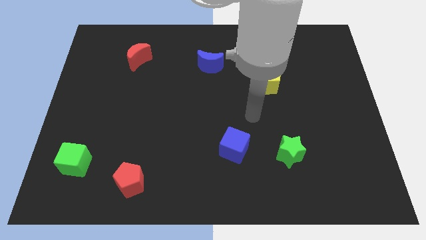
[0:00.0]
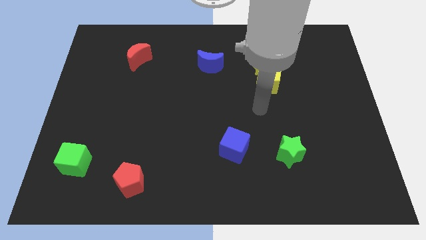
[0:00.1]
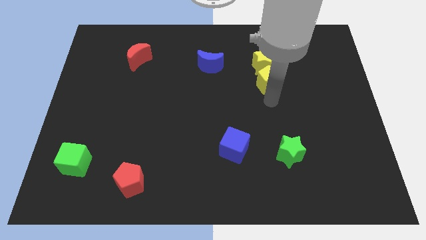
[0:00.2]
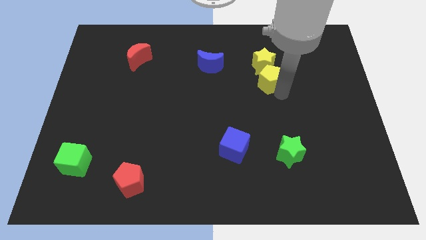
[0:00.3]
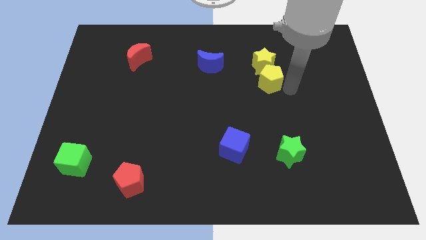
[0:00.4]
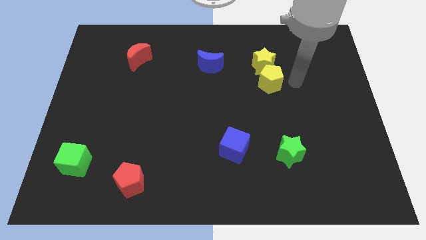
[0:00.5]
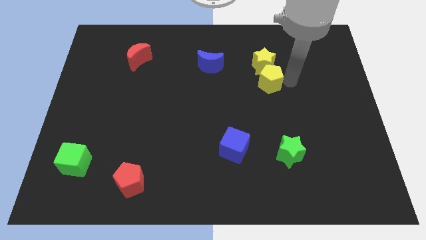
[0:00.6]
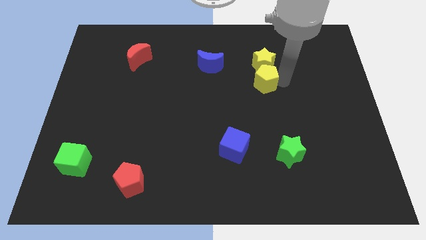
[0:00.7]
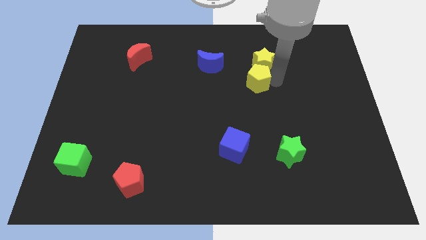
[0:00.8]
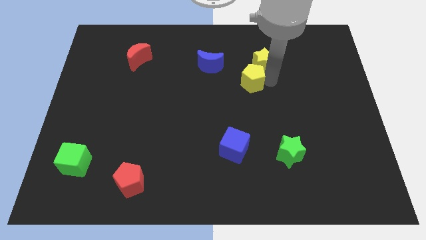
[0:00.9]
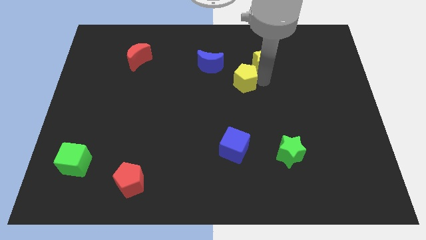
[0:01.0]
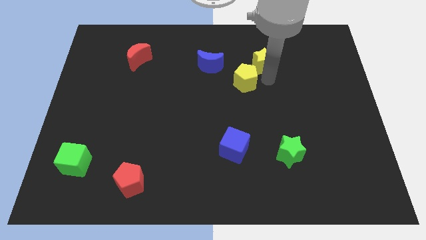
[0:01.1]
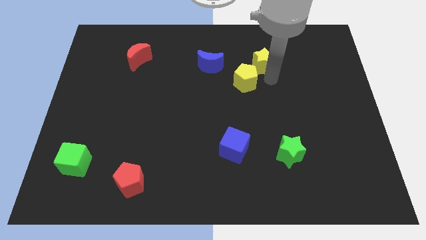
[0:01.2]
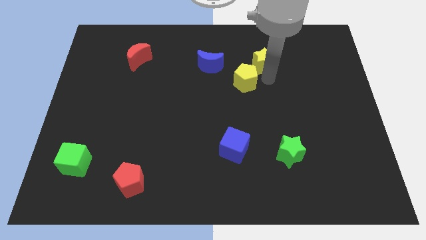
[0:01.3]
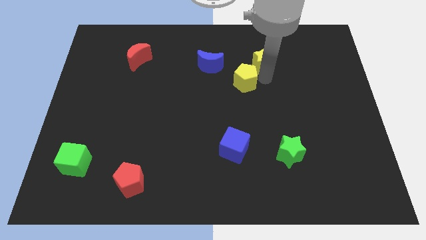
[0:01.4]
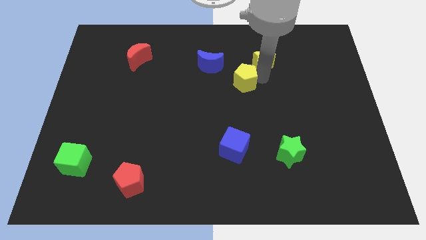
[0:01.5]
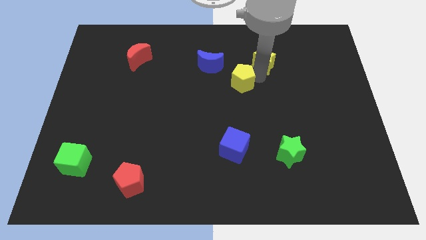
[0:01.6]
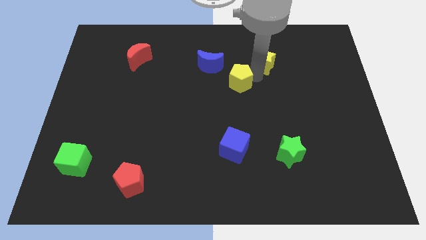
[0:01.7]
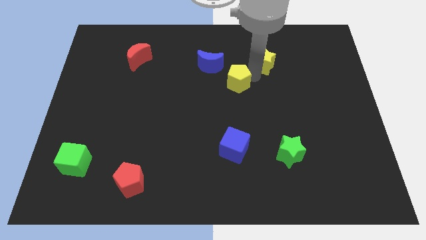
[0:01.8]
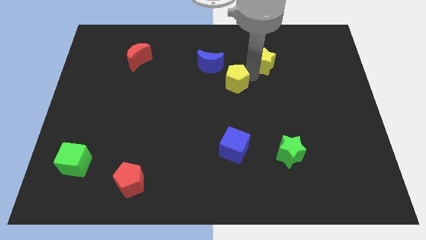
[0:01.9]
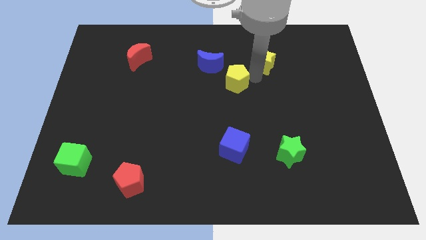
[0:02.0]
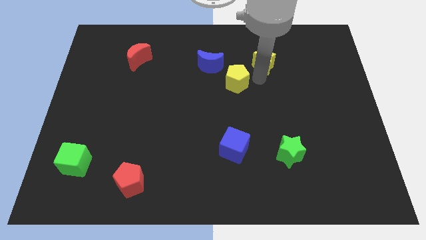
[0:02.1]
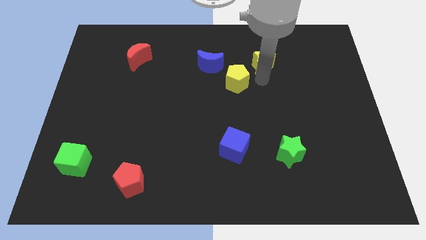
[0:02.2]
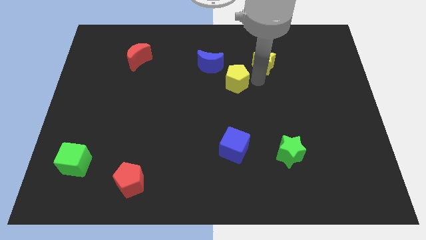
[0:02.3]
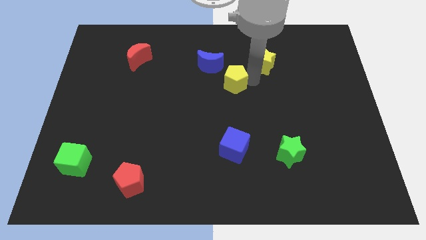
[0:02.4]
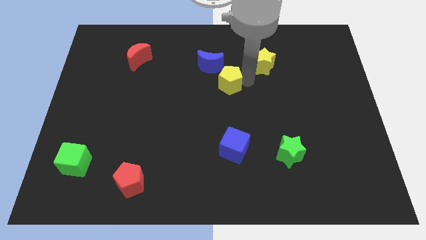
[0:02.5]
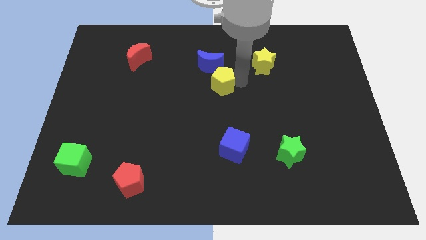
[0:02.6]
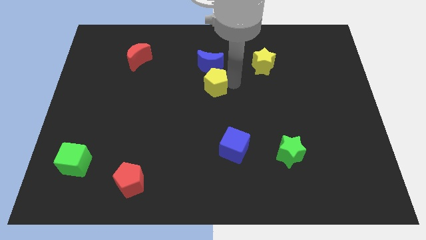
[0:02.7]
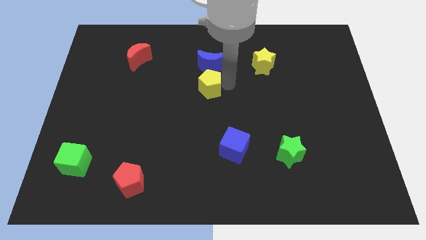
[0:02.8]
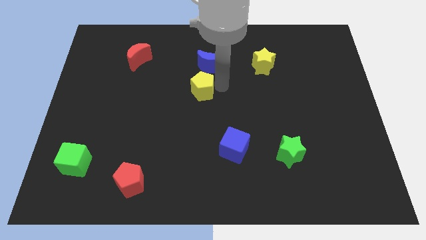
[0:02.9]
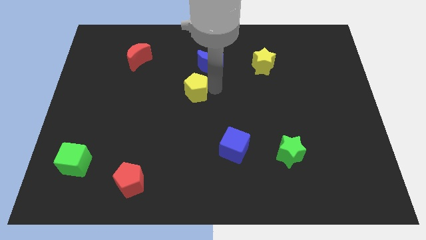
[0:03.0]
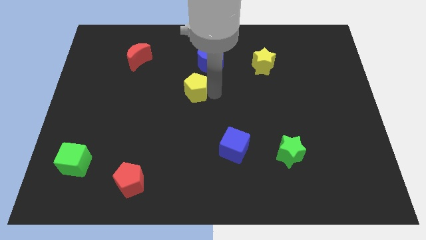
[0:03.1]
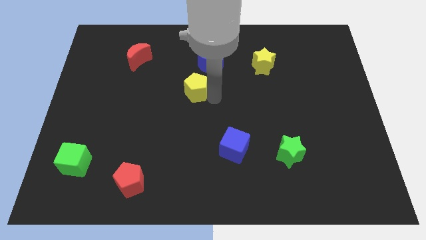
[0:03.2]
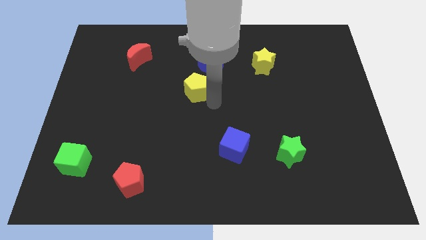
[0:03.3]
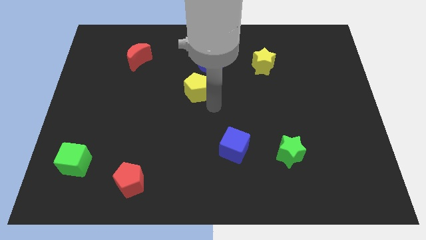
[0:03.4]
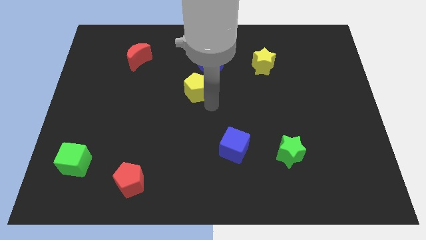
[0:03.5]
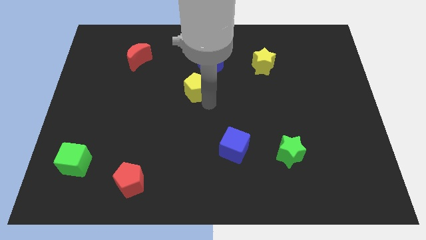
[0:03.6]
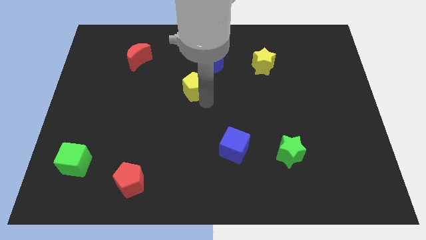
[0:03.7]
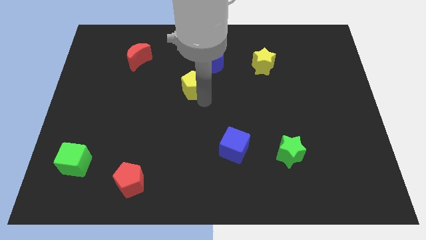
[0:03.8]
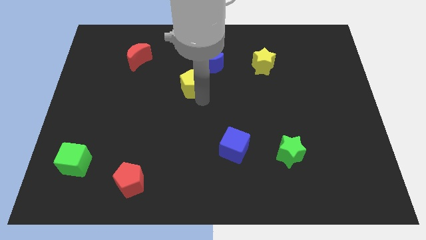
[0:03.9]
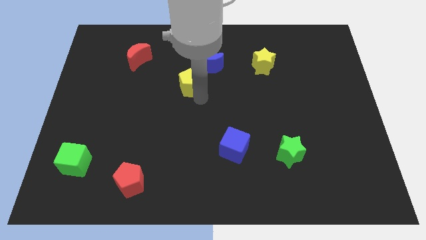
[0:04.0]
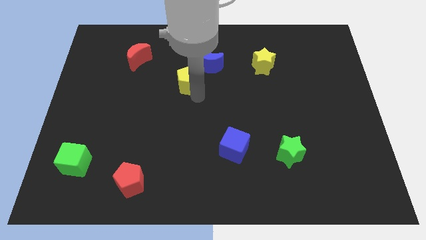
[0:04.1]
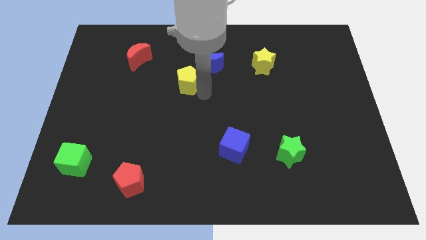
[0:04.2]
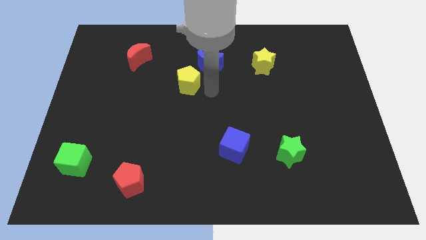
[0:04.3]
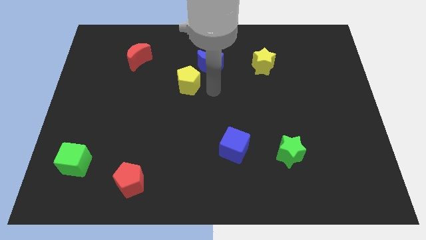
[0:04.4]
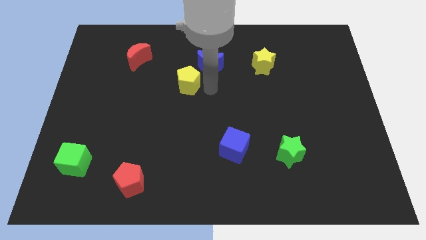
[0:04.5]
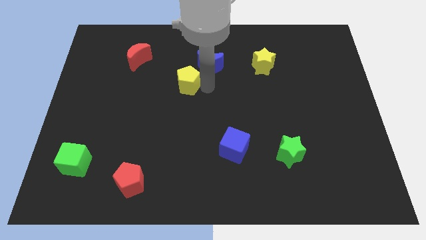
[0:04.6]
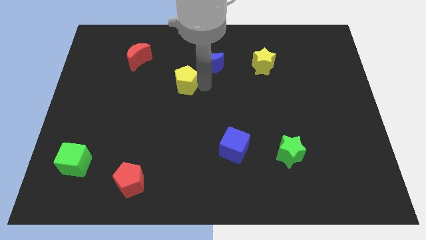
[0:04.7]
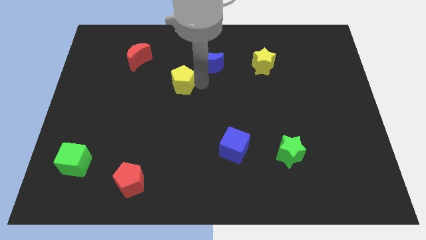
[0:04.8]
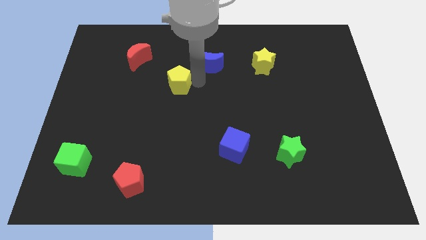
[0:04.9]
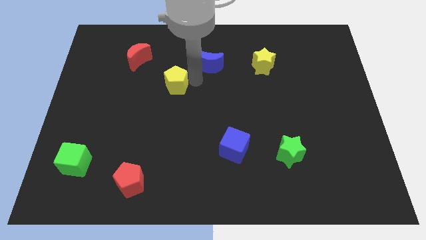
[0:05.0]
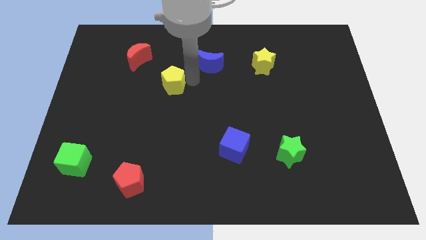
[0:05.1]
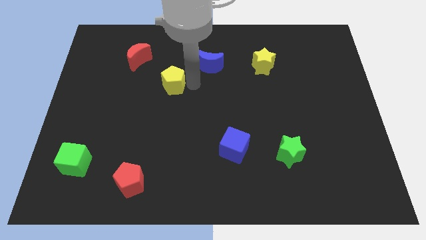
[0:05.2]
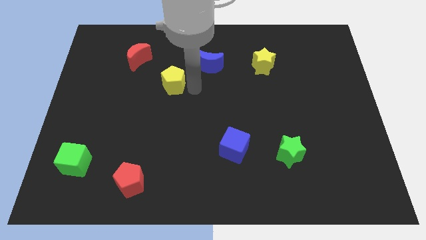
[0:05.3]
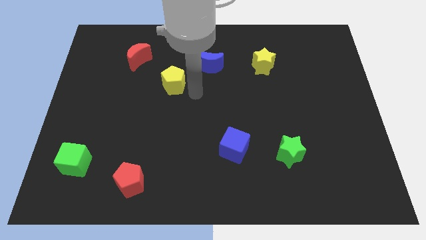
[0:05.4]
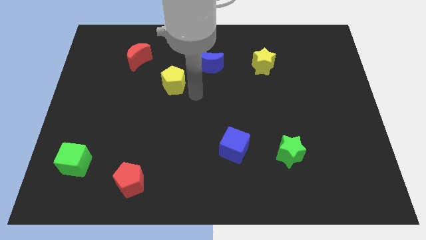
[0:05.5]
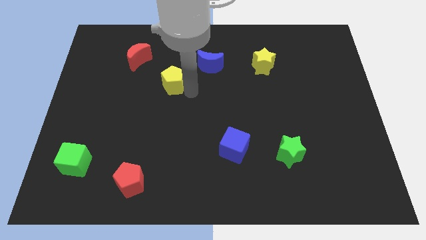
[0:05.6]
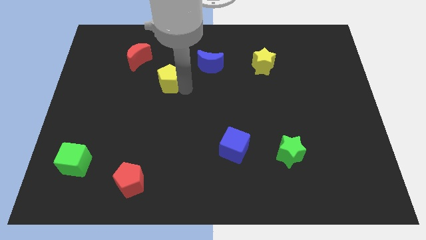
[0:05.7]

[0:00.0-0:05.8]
move the yellow pentagon diagonally down and to the right of the red moon

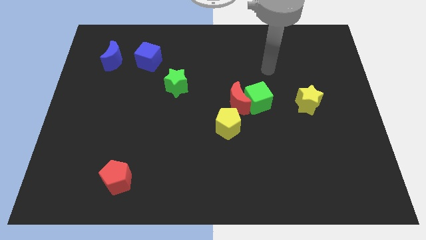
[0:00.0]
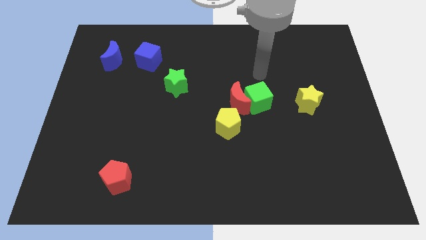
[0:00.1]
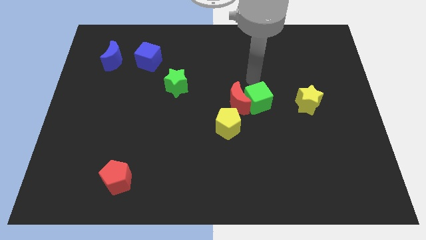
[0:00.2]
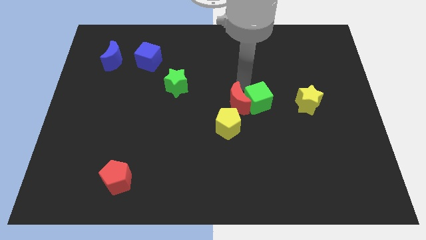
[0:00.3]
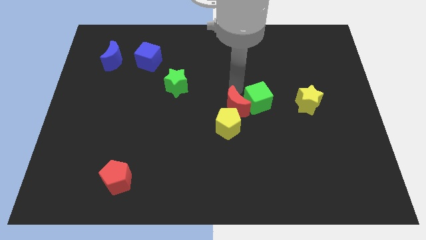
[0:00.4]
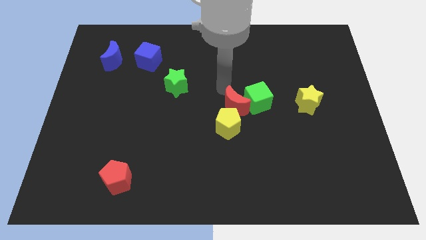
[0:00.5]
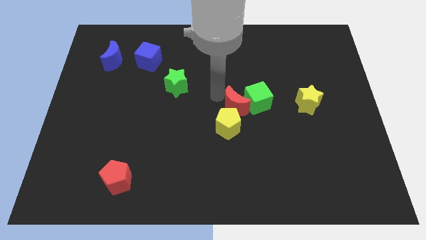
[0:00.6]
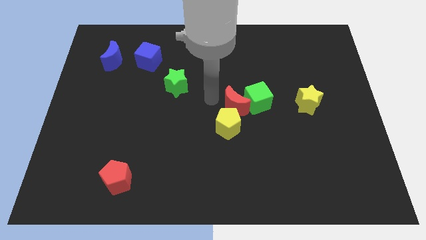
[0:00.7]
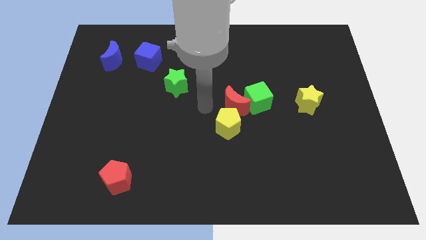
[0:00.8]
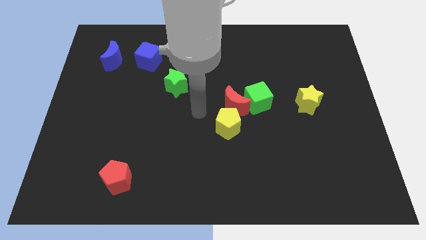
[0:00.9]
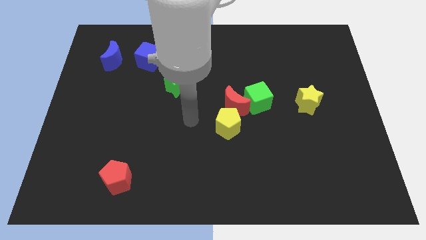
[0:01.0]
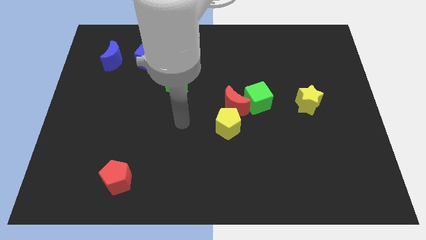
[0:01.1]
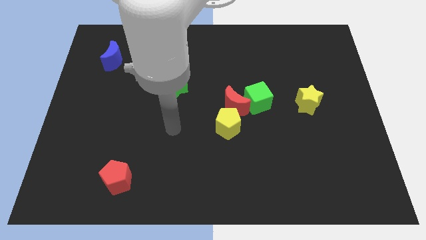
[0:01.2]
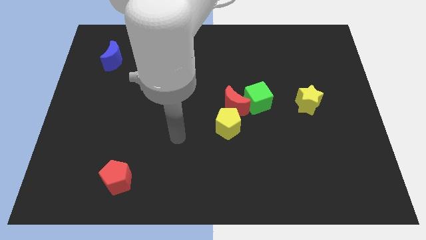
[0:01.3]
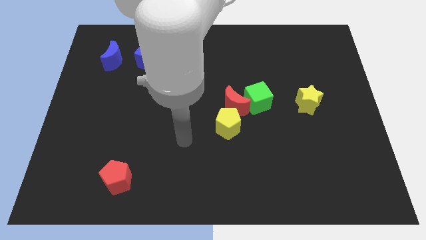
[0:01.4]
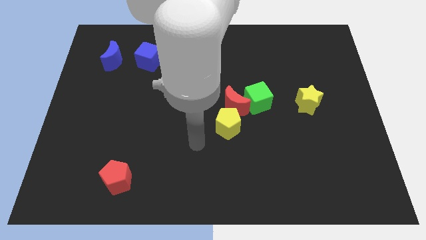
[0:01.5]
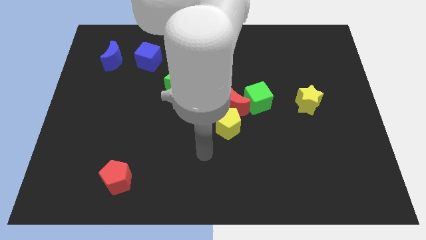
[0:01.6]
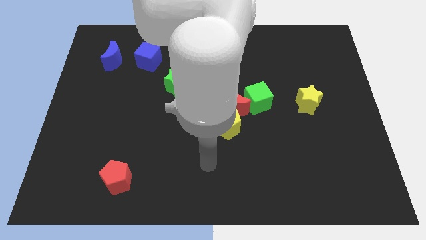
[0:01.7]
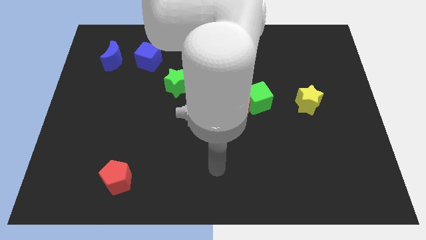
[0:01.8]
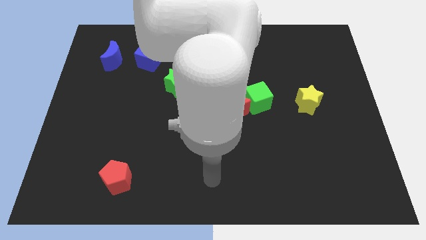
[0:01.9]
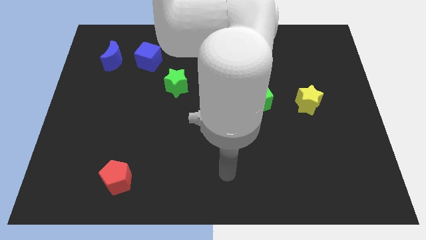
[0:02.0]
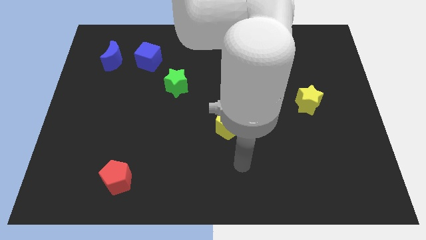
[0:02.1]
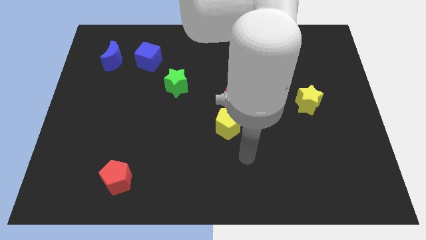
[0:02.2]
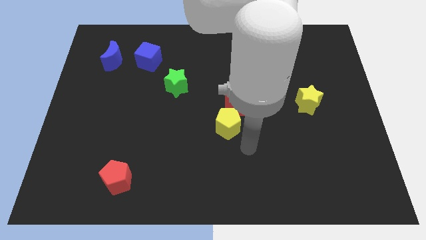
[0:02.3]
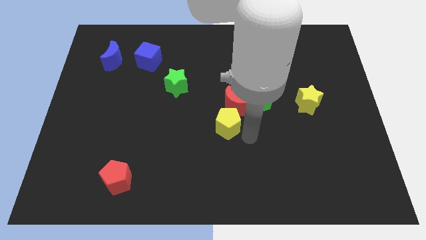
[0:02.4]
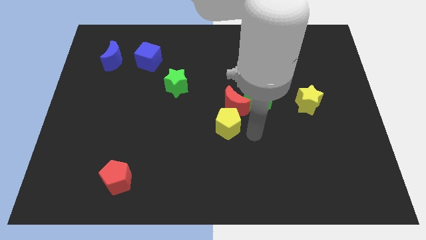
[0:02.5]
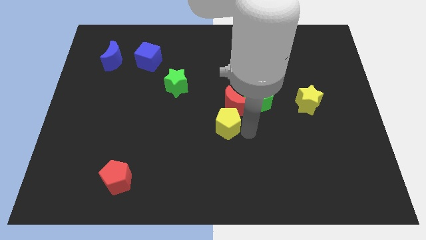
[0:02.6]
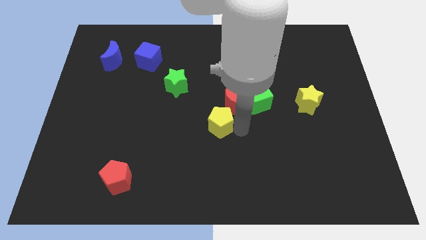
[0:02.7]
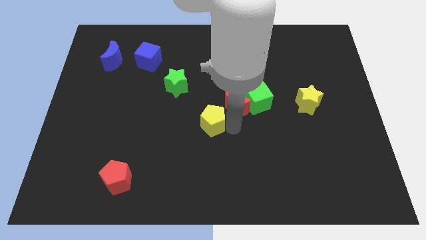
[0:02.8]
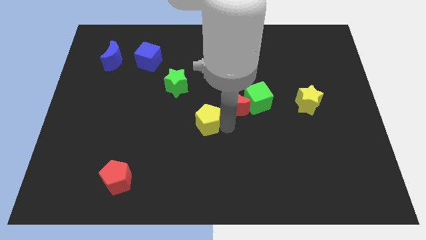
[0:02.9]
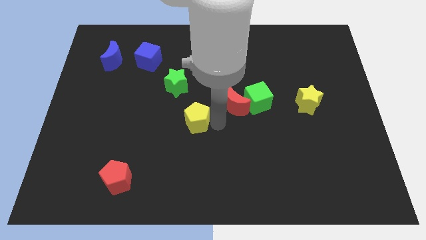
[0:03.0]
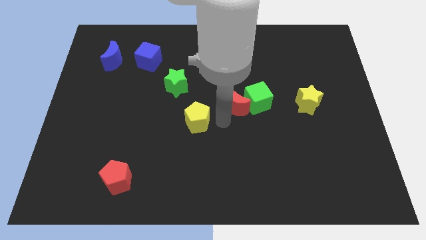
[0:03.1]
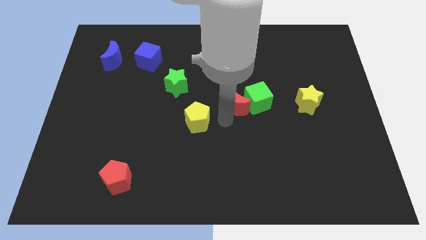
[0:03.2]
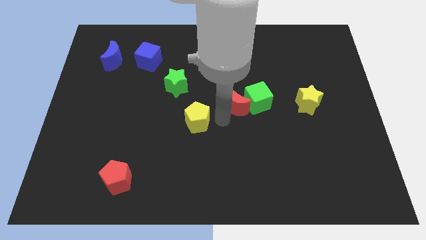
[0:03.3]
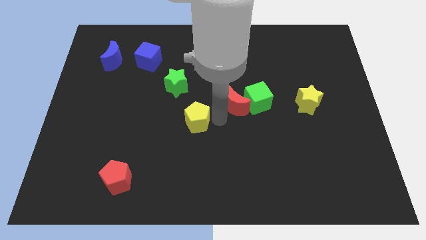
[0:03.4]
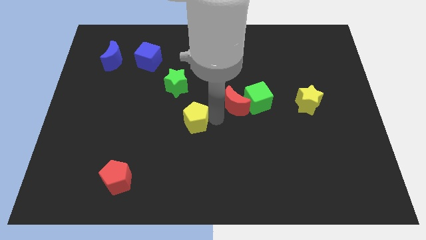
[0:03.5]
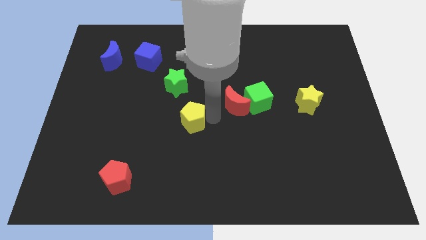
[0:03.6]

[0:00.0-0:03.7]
move the yellow pentagon below the green star
